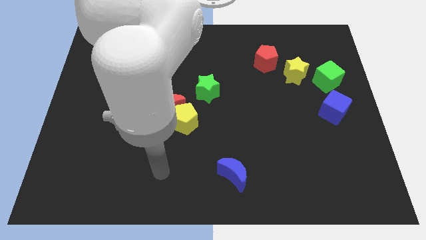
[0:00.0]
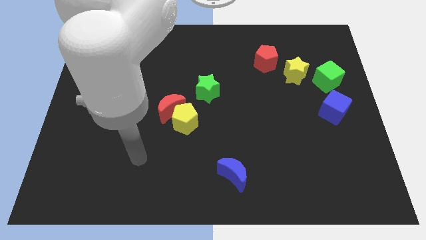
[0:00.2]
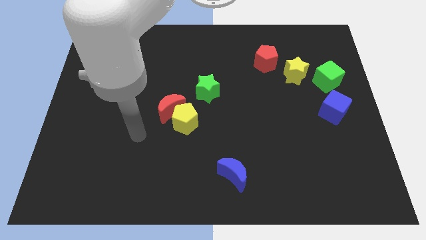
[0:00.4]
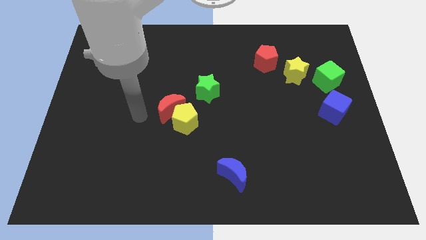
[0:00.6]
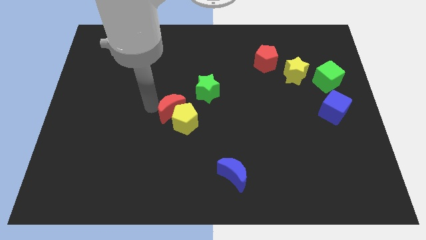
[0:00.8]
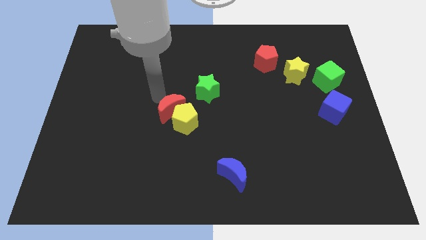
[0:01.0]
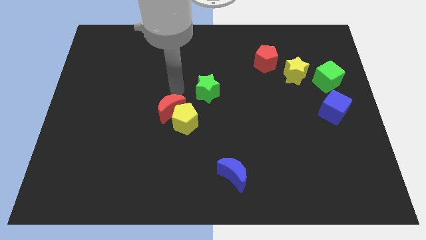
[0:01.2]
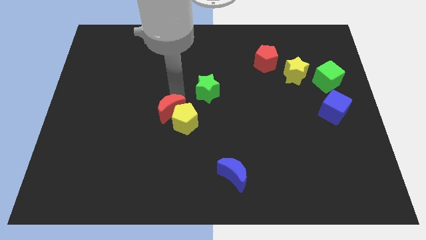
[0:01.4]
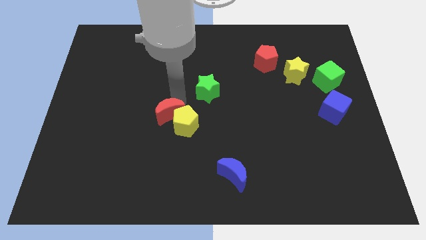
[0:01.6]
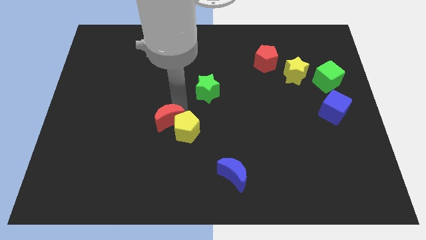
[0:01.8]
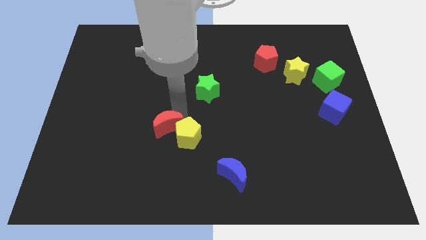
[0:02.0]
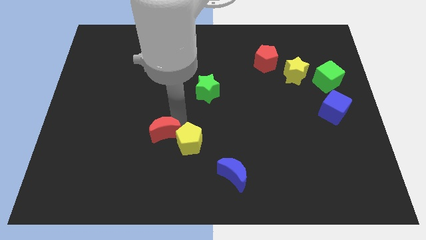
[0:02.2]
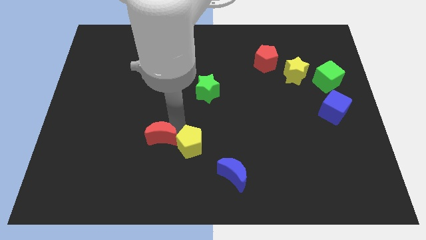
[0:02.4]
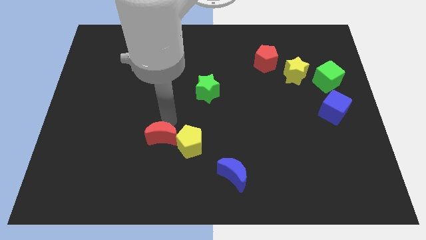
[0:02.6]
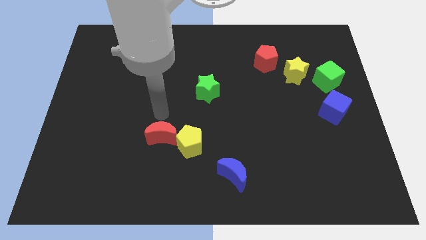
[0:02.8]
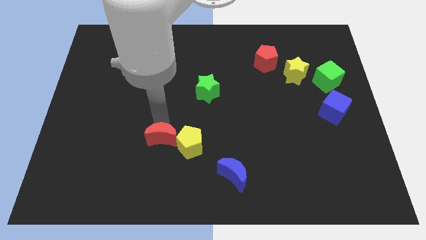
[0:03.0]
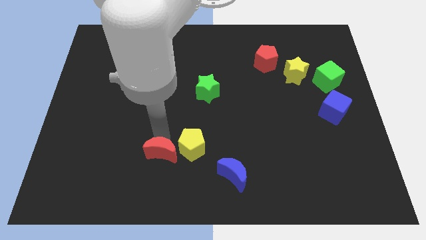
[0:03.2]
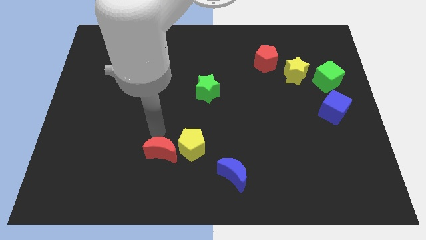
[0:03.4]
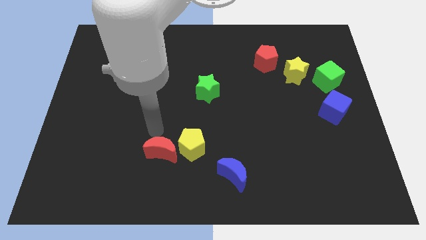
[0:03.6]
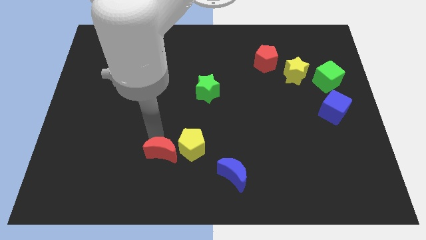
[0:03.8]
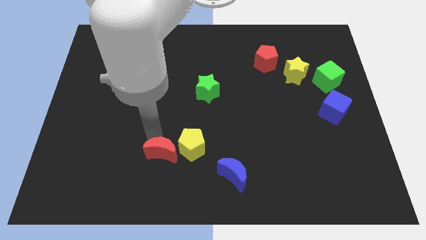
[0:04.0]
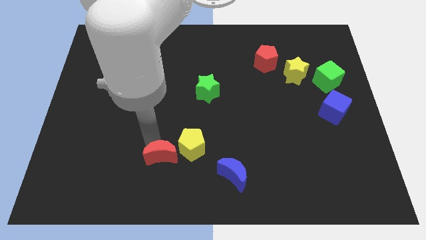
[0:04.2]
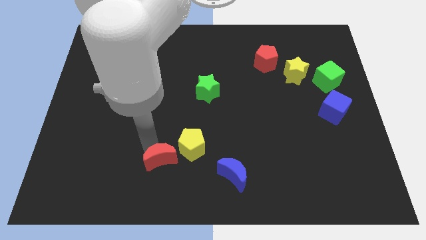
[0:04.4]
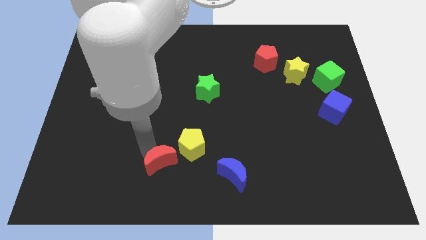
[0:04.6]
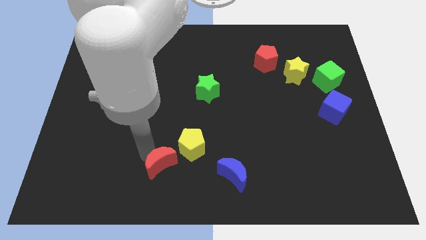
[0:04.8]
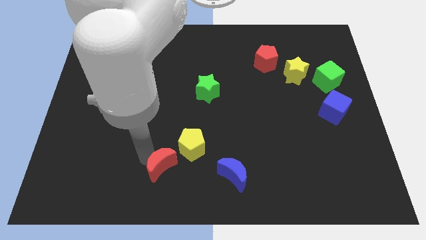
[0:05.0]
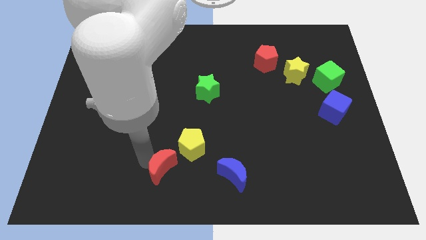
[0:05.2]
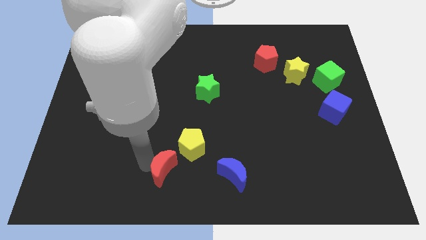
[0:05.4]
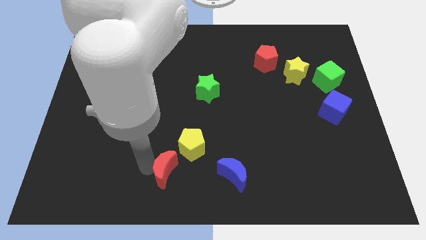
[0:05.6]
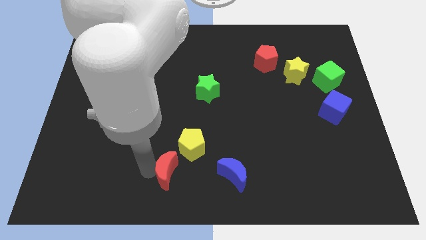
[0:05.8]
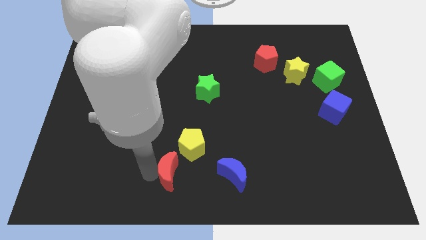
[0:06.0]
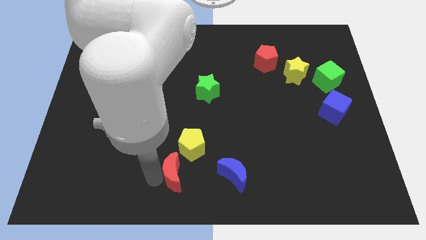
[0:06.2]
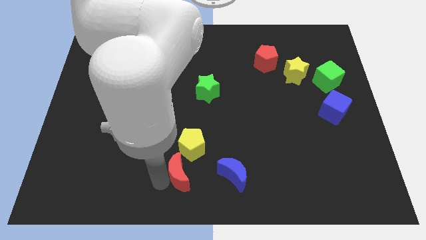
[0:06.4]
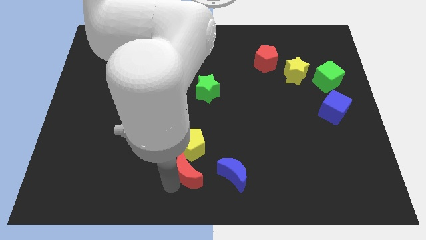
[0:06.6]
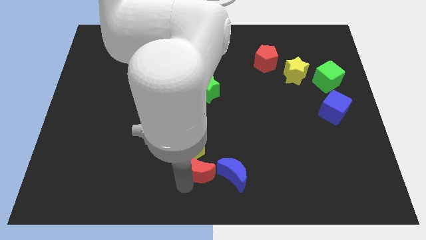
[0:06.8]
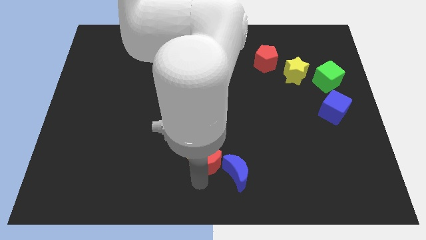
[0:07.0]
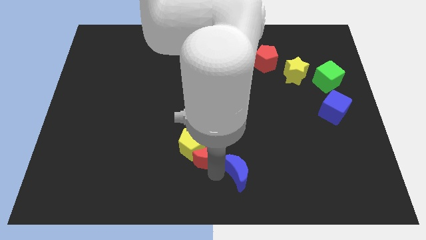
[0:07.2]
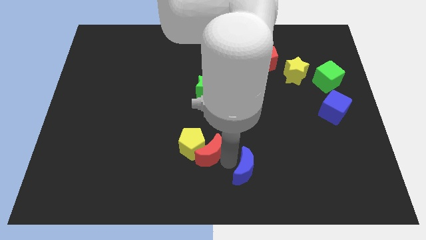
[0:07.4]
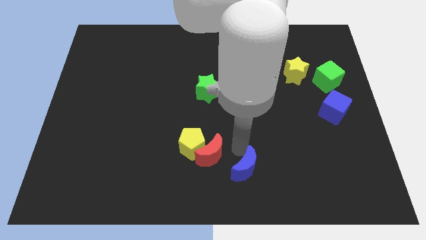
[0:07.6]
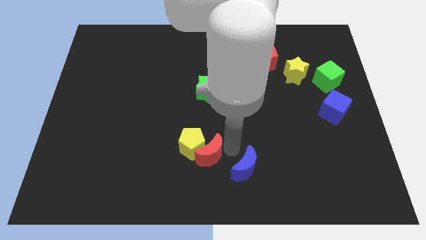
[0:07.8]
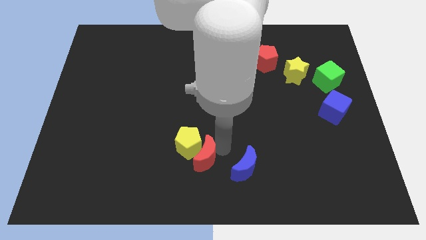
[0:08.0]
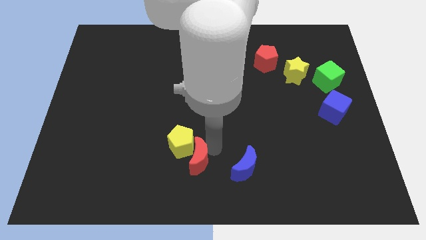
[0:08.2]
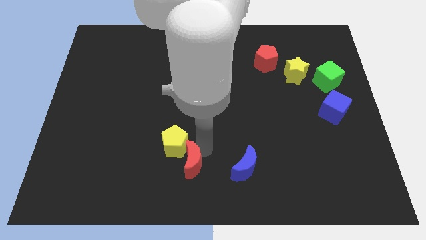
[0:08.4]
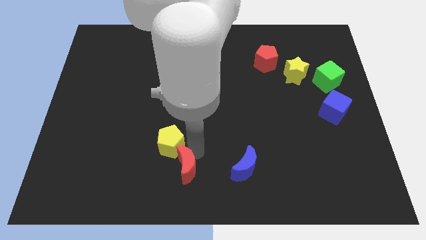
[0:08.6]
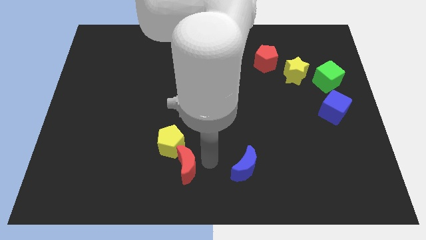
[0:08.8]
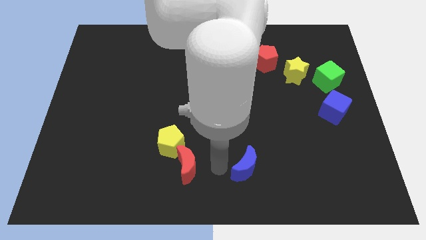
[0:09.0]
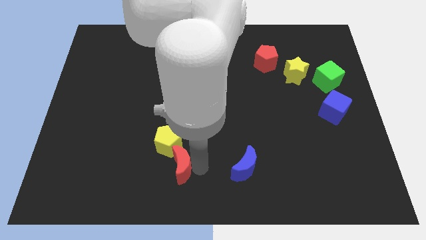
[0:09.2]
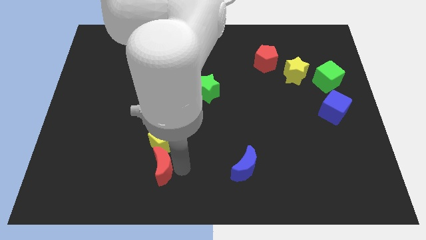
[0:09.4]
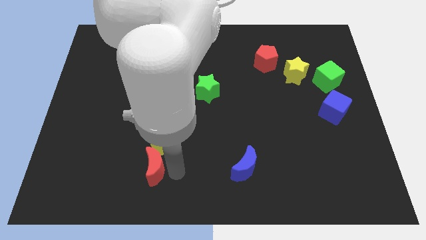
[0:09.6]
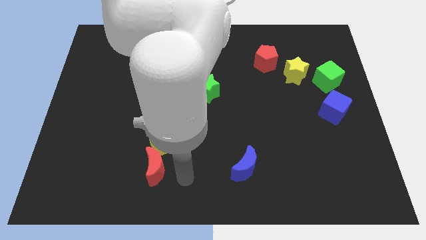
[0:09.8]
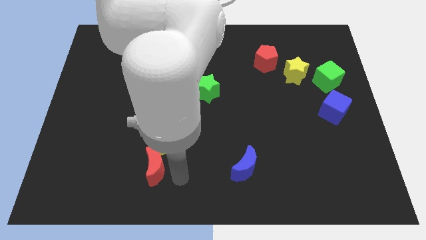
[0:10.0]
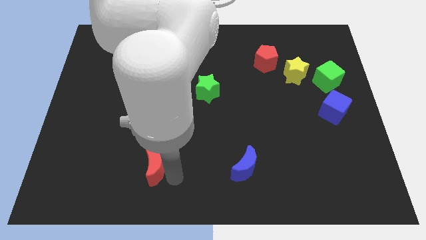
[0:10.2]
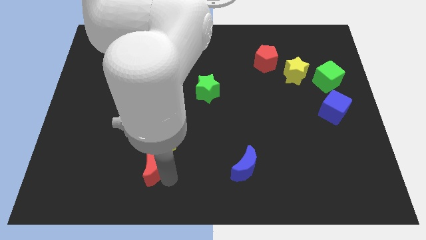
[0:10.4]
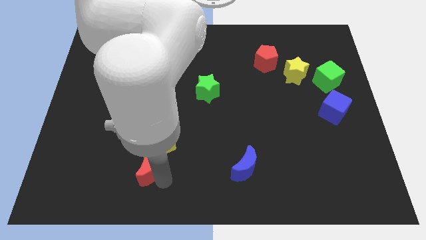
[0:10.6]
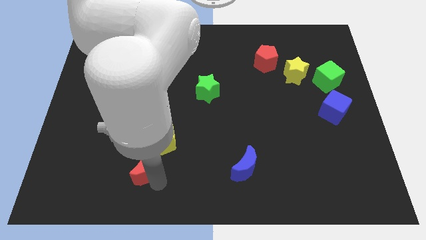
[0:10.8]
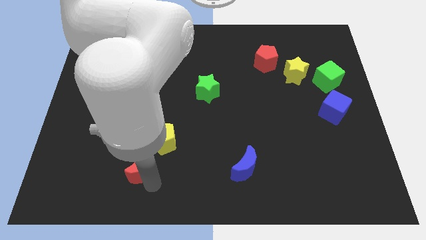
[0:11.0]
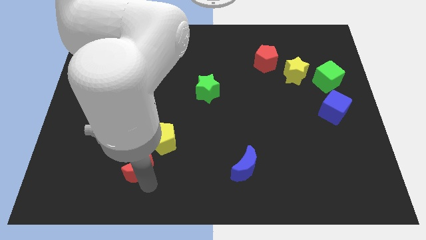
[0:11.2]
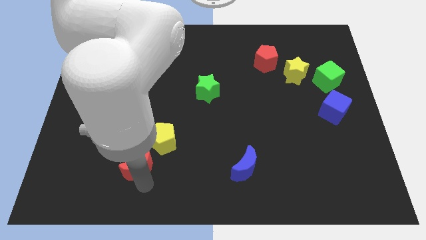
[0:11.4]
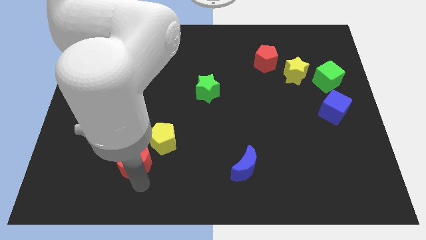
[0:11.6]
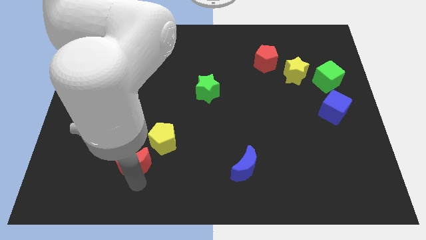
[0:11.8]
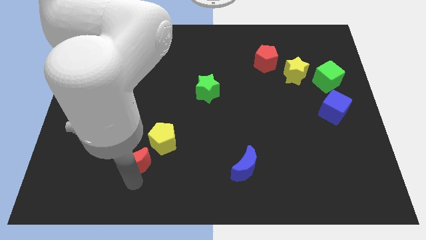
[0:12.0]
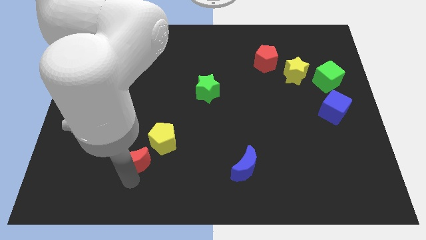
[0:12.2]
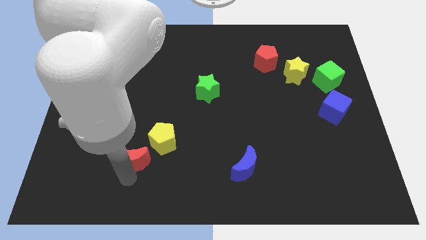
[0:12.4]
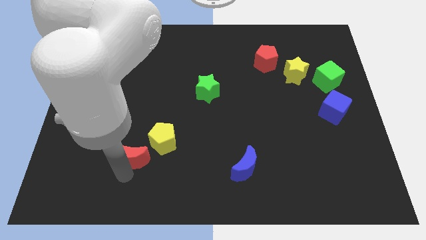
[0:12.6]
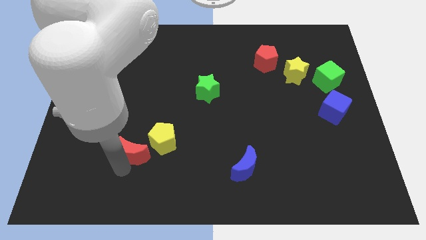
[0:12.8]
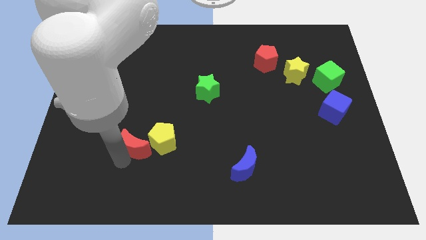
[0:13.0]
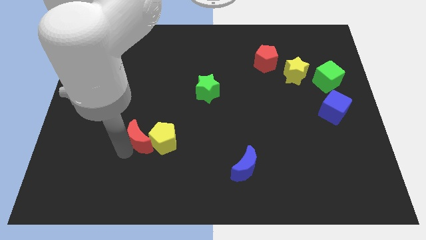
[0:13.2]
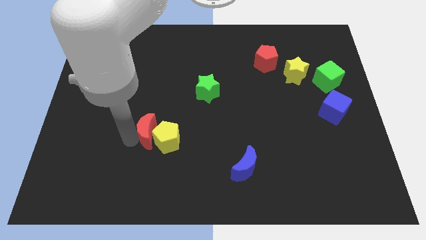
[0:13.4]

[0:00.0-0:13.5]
slide the red moon to the bottom left of the yellow pentagon
